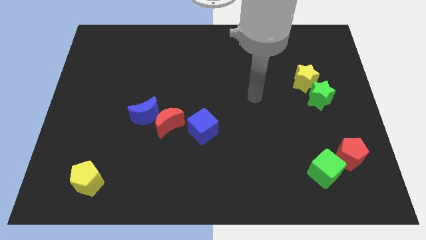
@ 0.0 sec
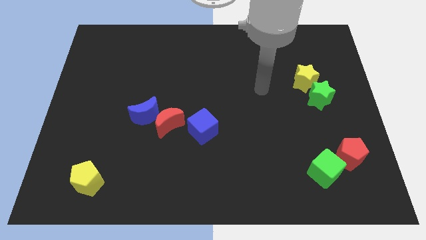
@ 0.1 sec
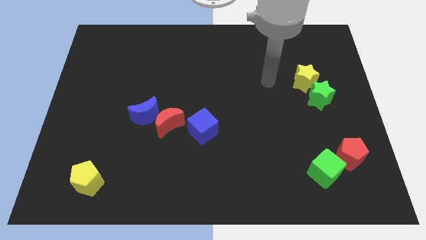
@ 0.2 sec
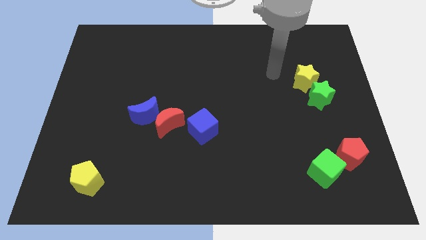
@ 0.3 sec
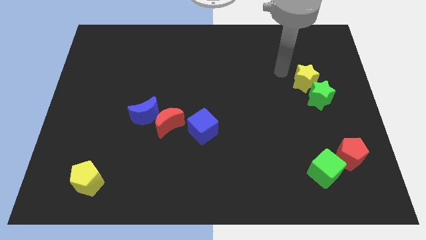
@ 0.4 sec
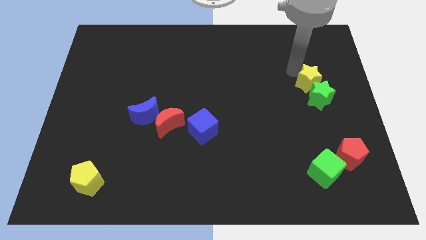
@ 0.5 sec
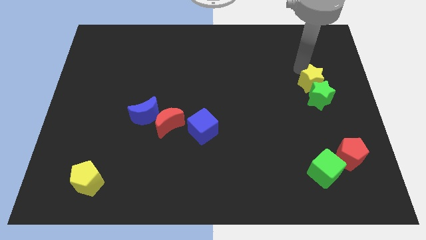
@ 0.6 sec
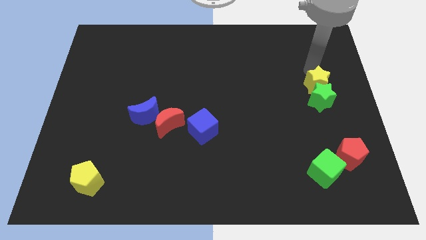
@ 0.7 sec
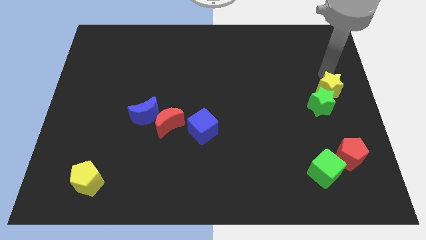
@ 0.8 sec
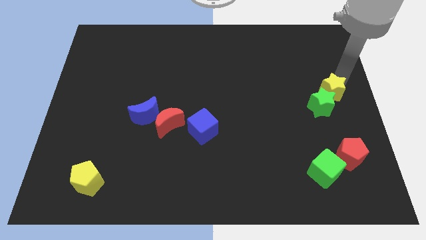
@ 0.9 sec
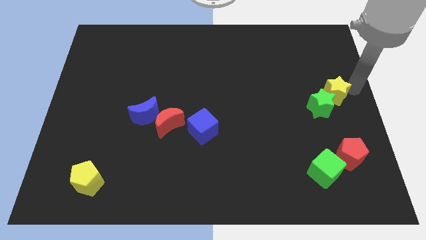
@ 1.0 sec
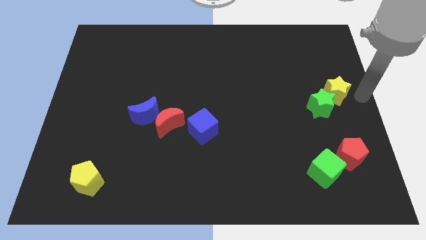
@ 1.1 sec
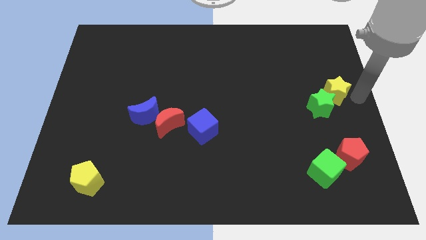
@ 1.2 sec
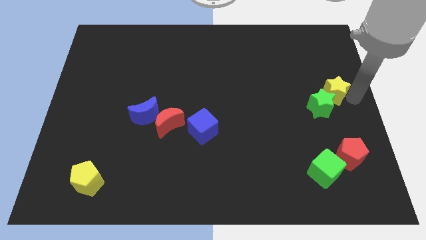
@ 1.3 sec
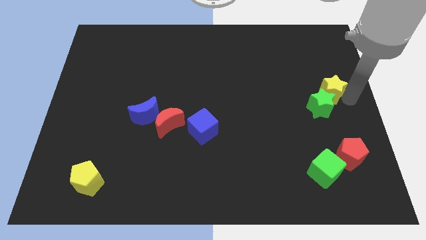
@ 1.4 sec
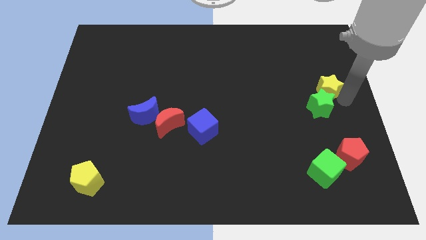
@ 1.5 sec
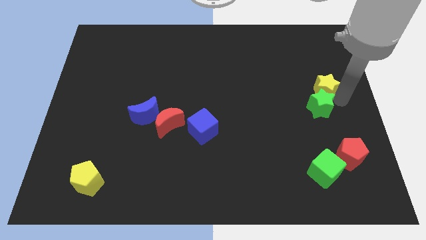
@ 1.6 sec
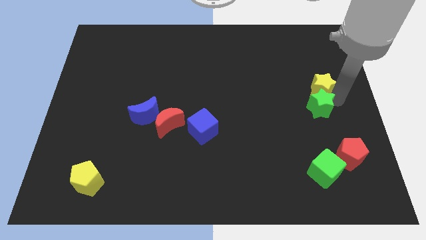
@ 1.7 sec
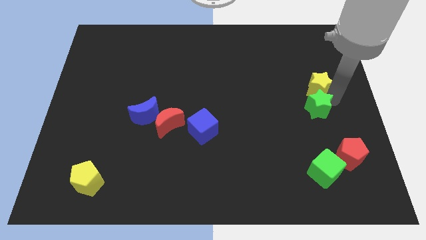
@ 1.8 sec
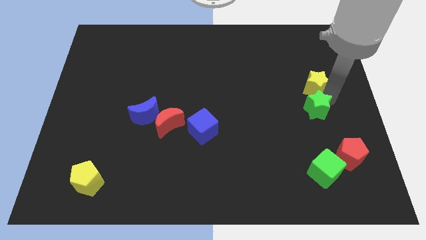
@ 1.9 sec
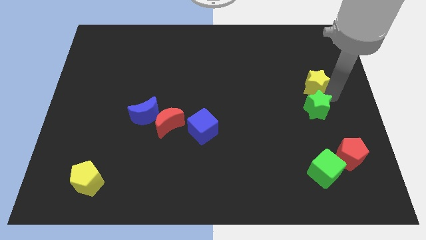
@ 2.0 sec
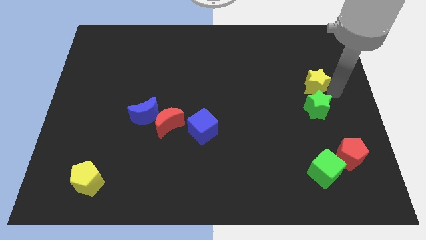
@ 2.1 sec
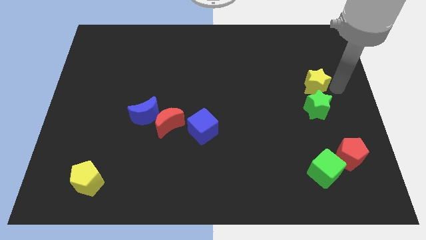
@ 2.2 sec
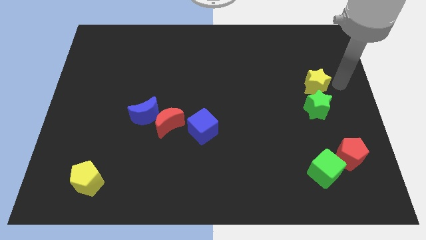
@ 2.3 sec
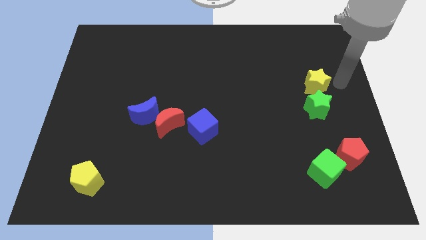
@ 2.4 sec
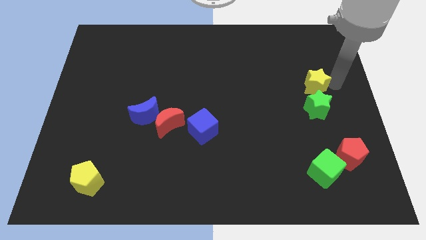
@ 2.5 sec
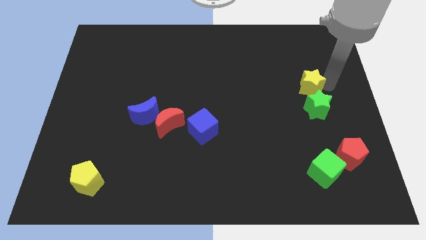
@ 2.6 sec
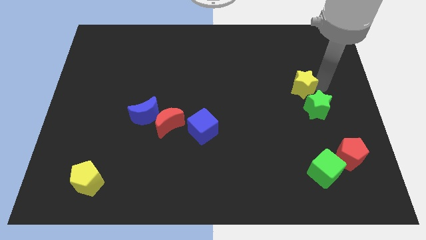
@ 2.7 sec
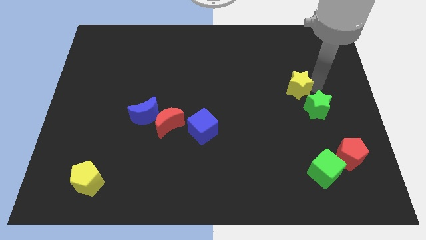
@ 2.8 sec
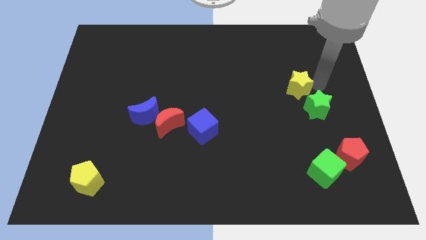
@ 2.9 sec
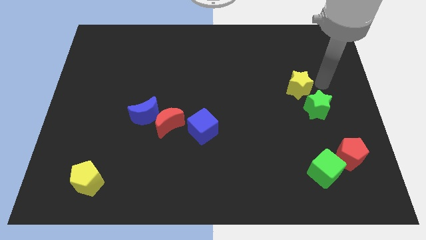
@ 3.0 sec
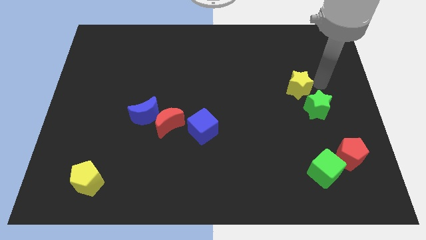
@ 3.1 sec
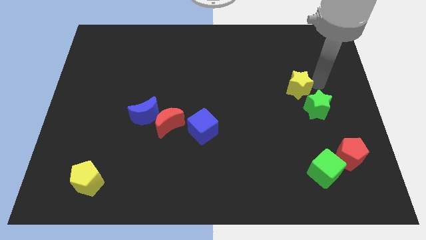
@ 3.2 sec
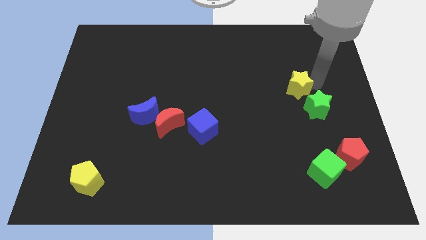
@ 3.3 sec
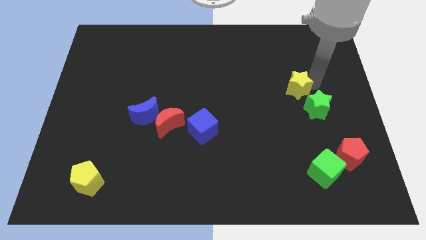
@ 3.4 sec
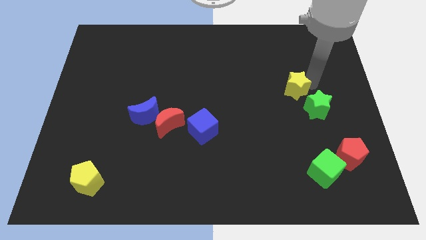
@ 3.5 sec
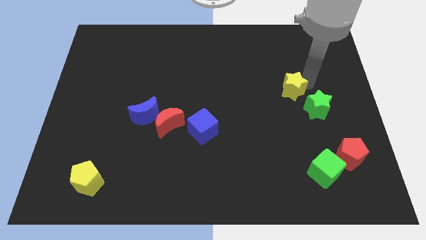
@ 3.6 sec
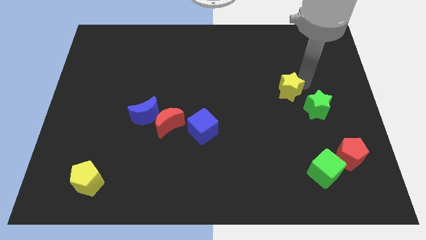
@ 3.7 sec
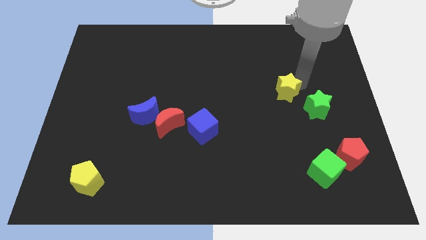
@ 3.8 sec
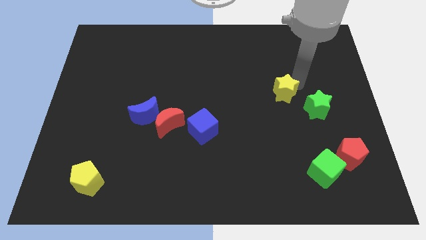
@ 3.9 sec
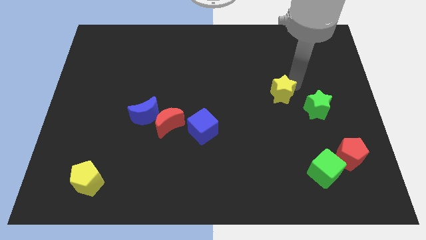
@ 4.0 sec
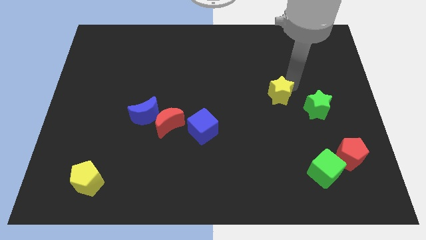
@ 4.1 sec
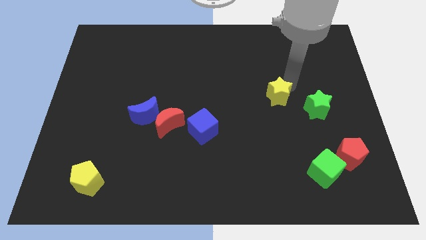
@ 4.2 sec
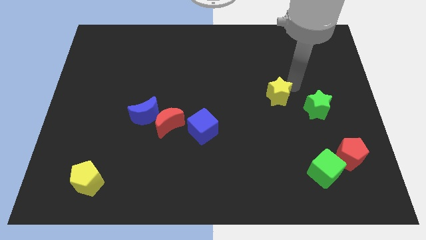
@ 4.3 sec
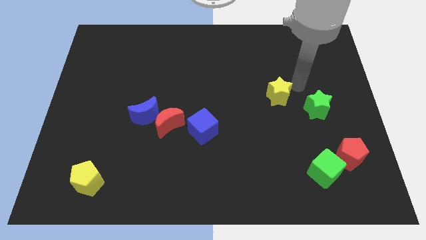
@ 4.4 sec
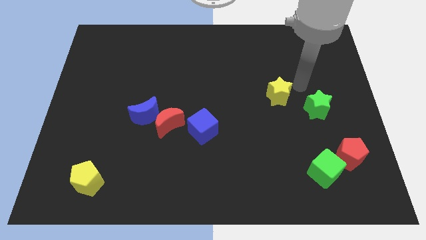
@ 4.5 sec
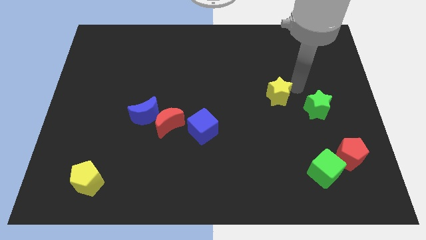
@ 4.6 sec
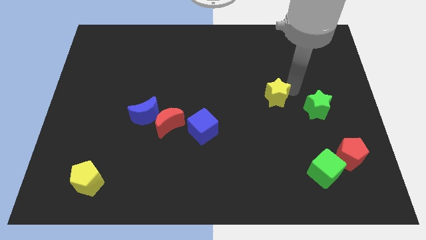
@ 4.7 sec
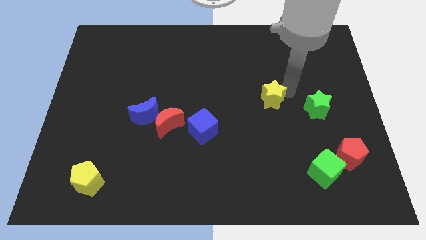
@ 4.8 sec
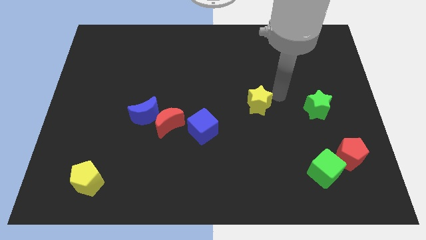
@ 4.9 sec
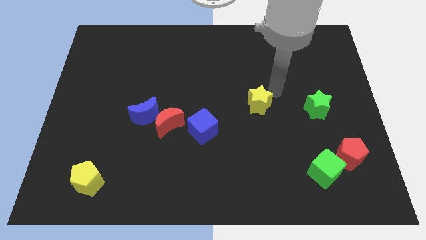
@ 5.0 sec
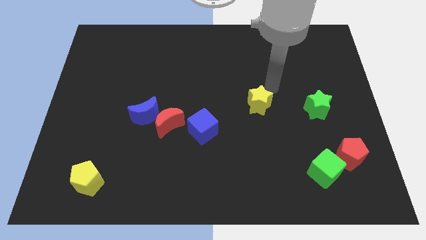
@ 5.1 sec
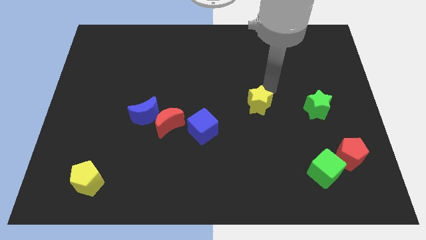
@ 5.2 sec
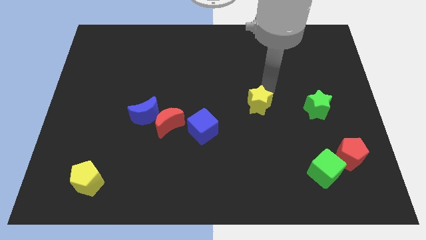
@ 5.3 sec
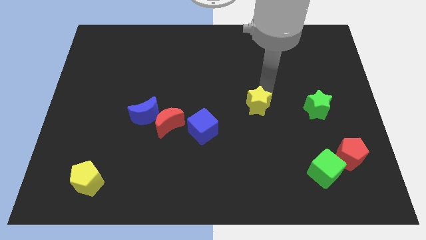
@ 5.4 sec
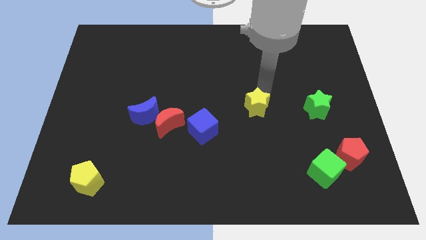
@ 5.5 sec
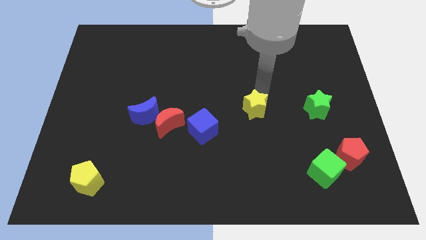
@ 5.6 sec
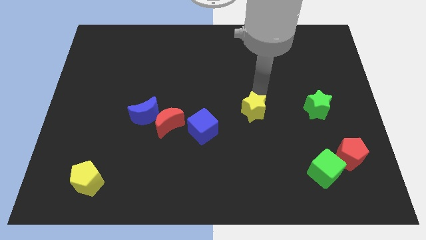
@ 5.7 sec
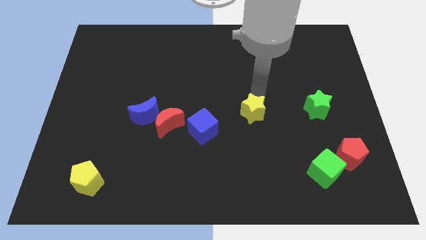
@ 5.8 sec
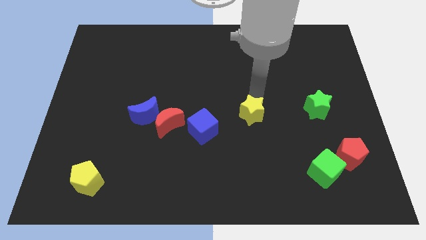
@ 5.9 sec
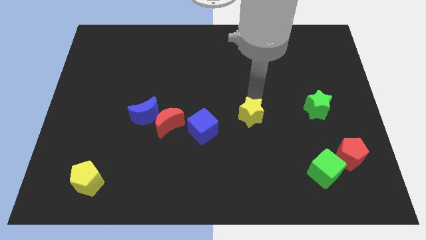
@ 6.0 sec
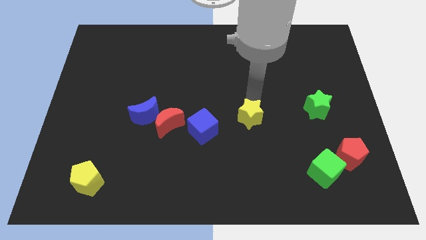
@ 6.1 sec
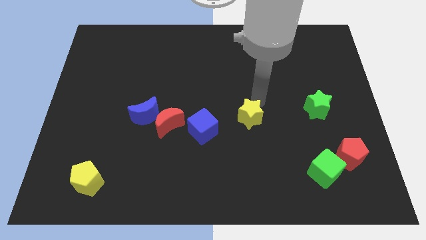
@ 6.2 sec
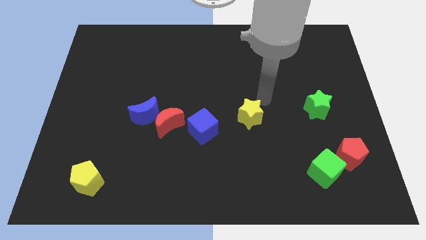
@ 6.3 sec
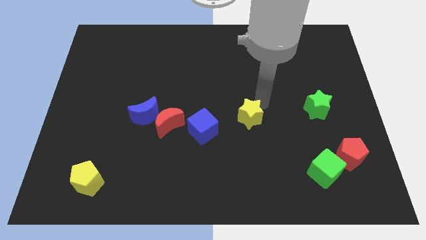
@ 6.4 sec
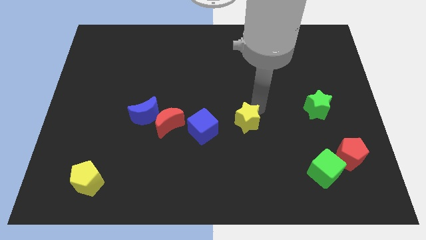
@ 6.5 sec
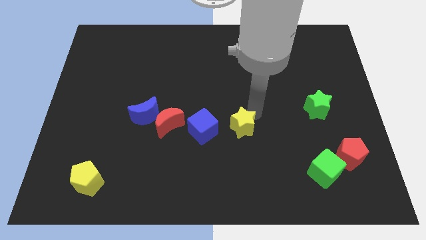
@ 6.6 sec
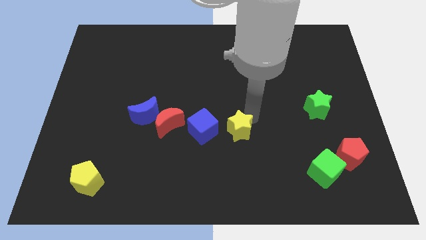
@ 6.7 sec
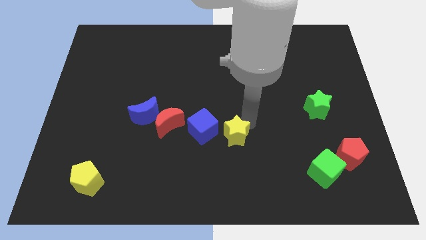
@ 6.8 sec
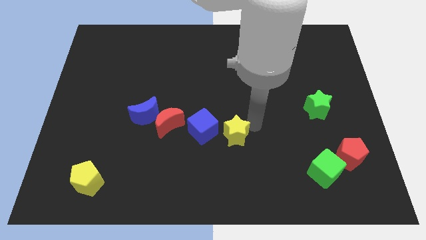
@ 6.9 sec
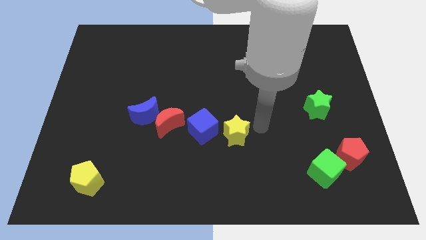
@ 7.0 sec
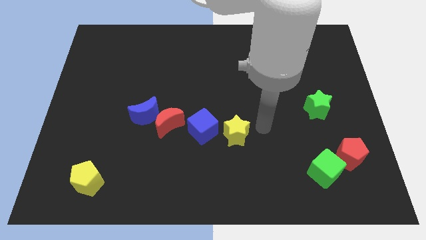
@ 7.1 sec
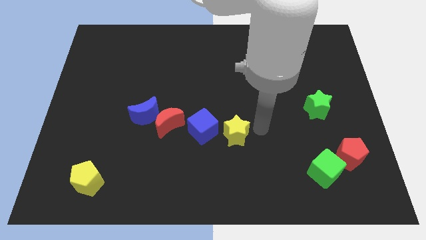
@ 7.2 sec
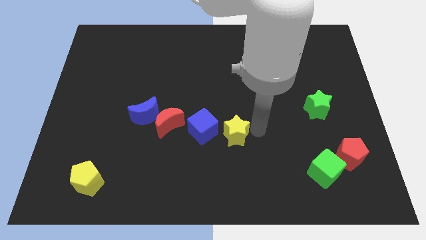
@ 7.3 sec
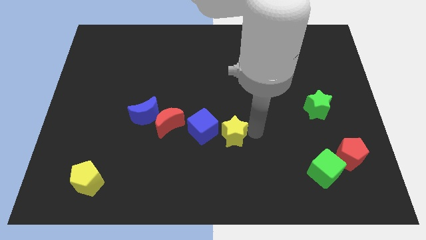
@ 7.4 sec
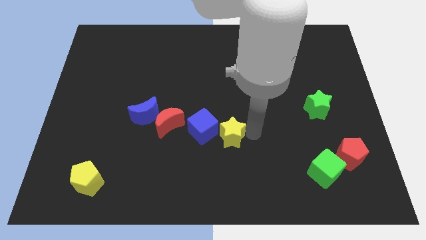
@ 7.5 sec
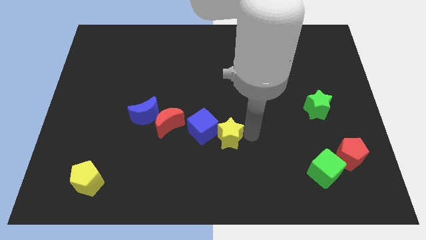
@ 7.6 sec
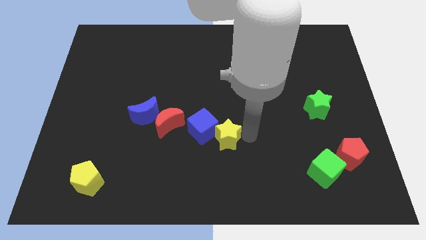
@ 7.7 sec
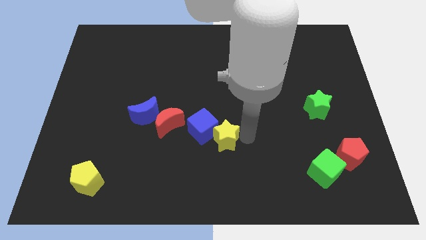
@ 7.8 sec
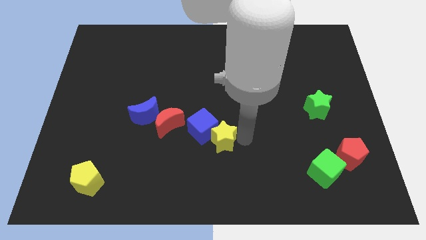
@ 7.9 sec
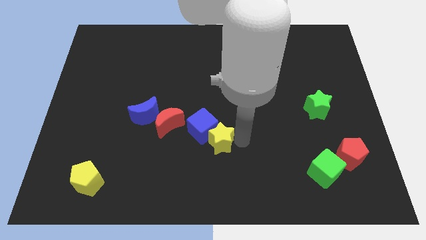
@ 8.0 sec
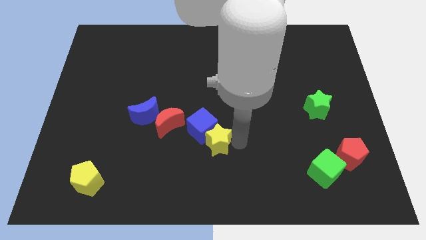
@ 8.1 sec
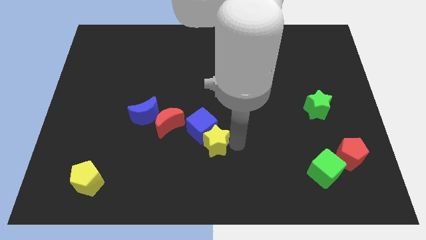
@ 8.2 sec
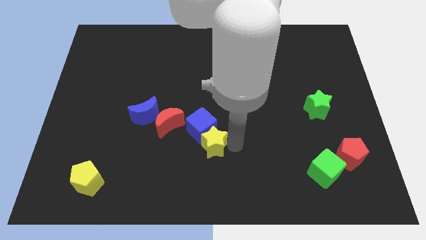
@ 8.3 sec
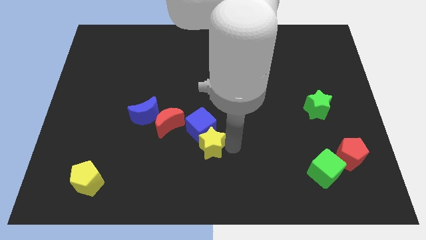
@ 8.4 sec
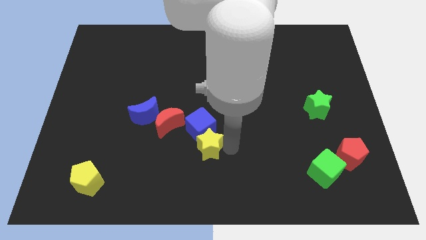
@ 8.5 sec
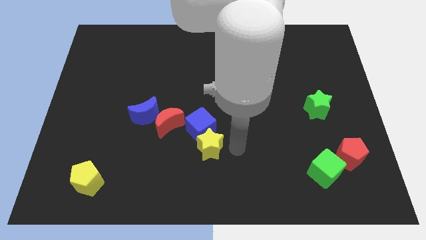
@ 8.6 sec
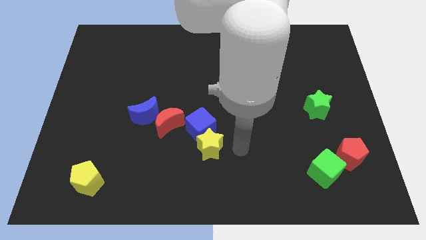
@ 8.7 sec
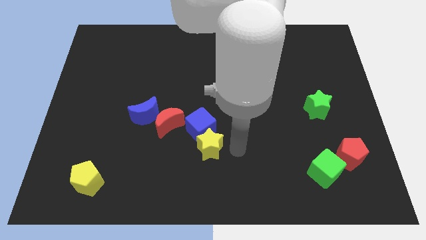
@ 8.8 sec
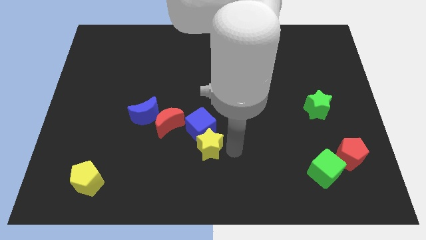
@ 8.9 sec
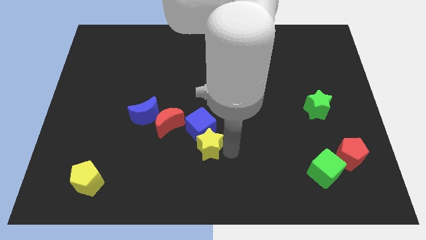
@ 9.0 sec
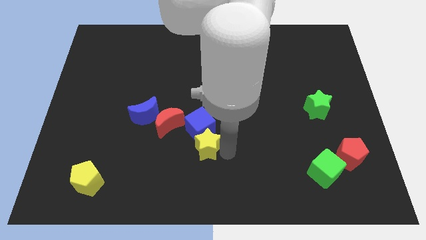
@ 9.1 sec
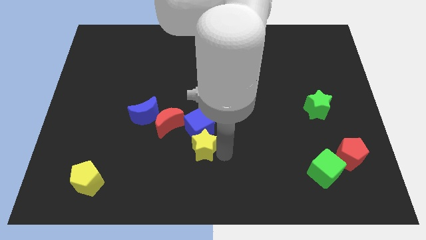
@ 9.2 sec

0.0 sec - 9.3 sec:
push the yellow star to the bottom left side of the blue cube
